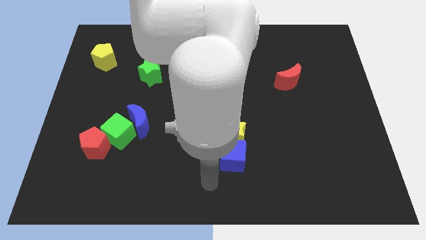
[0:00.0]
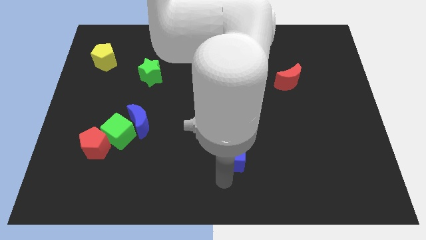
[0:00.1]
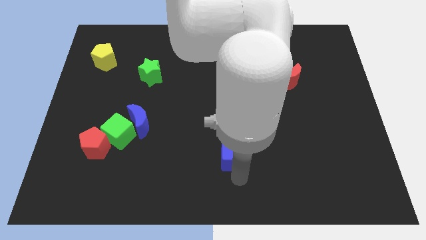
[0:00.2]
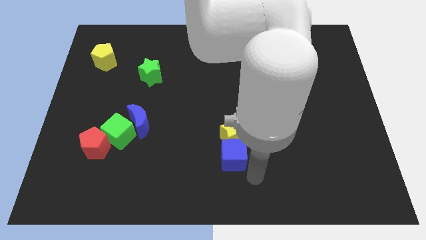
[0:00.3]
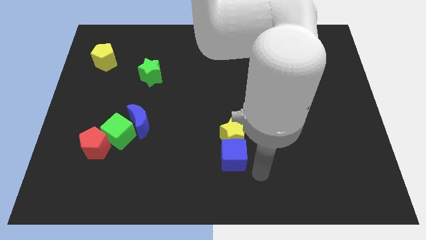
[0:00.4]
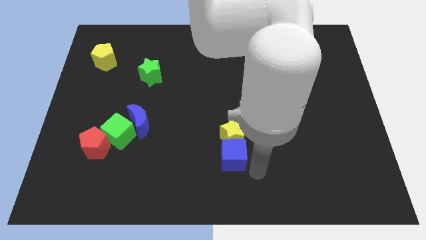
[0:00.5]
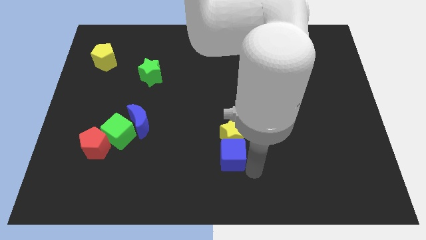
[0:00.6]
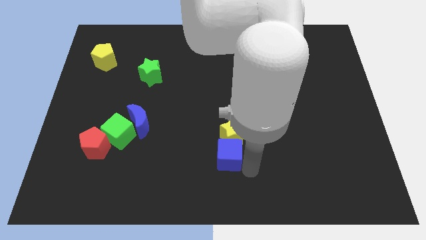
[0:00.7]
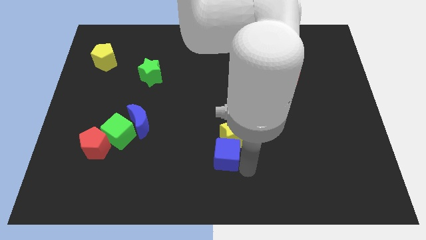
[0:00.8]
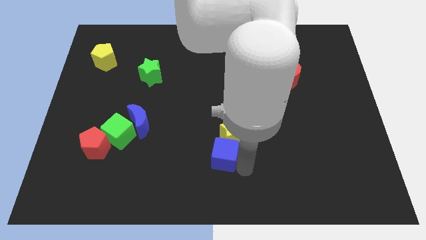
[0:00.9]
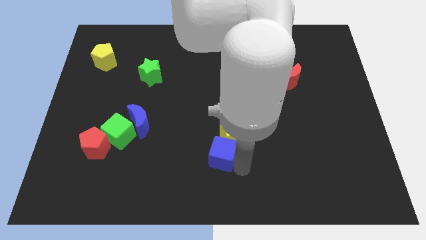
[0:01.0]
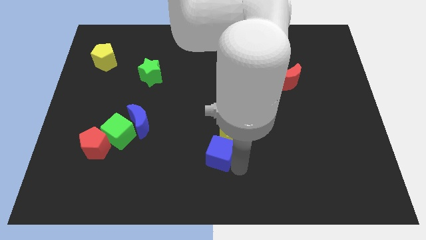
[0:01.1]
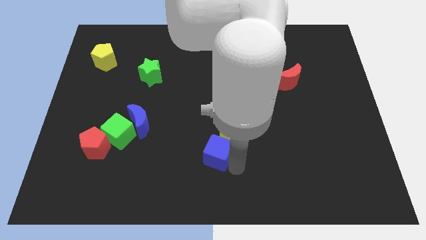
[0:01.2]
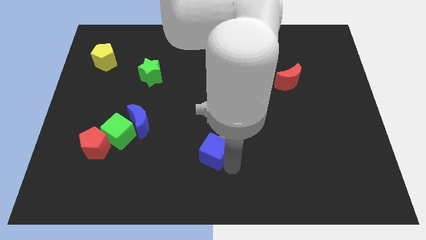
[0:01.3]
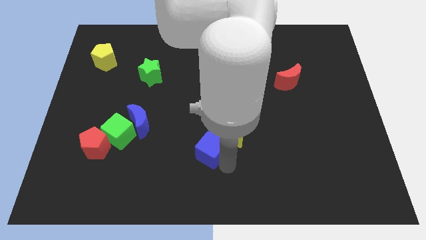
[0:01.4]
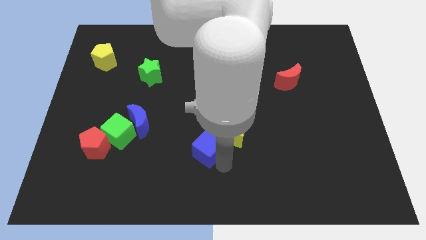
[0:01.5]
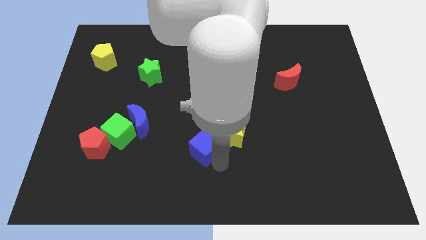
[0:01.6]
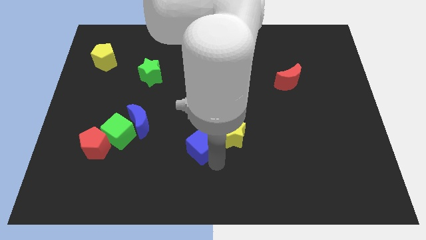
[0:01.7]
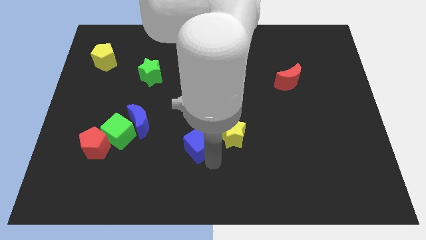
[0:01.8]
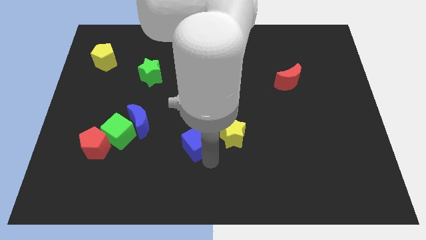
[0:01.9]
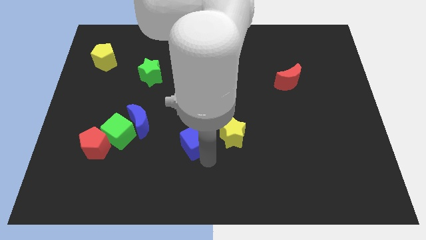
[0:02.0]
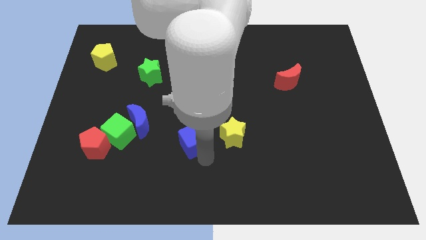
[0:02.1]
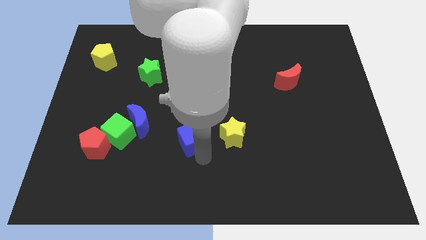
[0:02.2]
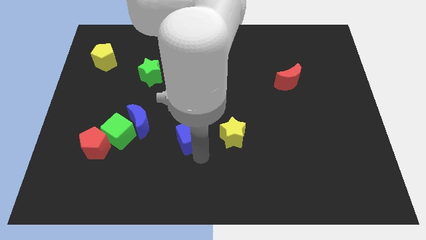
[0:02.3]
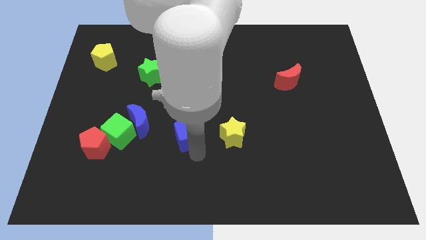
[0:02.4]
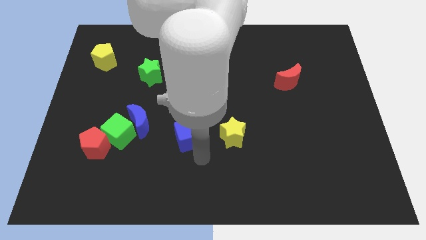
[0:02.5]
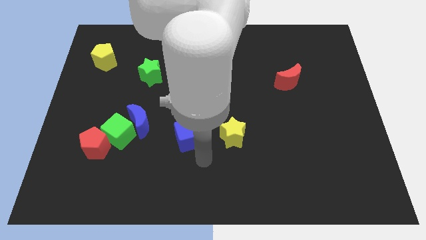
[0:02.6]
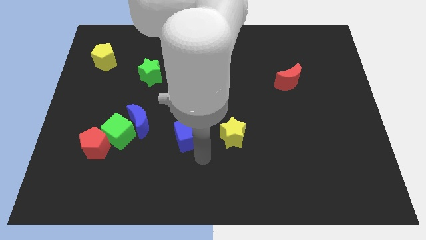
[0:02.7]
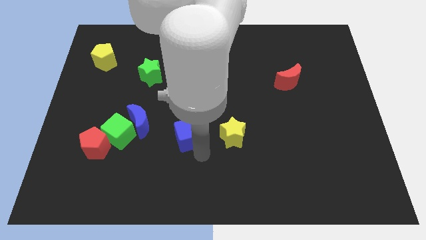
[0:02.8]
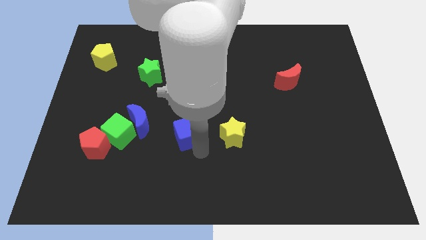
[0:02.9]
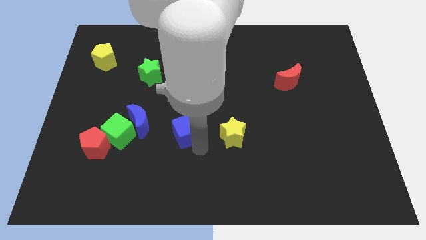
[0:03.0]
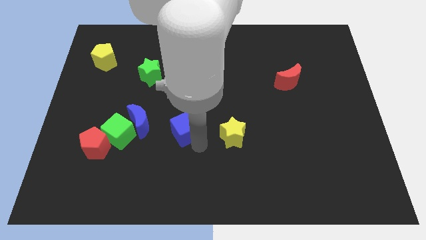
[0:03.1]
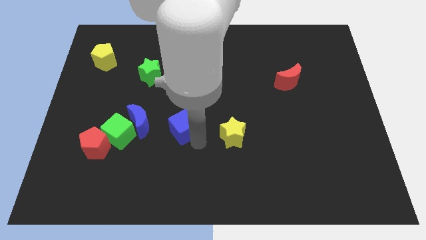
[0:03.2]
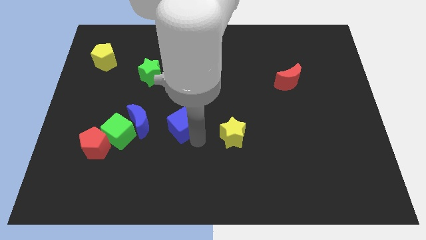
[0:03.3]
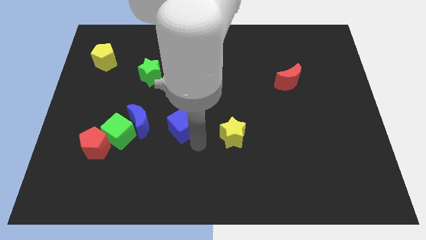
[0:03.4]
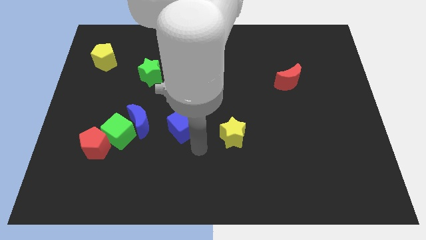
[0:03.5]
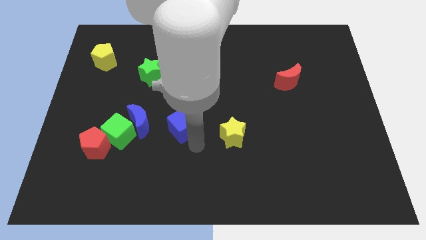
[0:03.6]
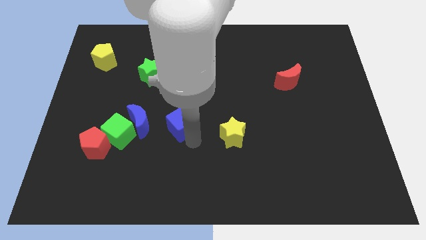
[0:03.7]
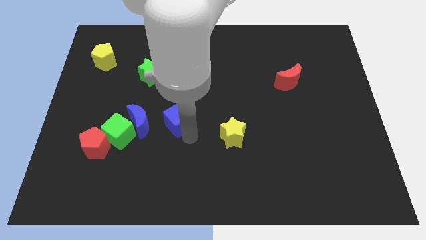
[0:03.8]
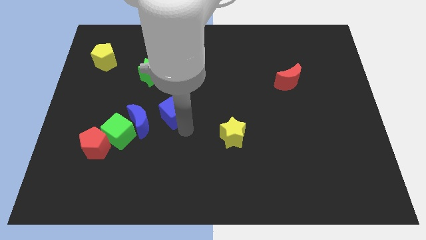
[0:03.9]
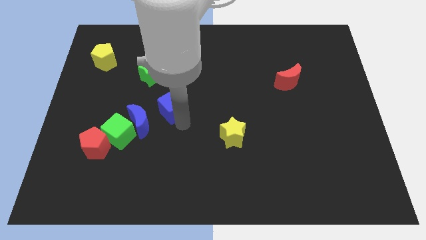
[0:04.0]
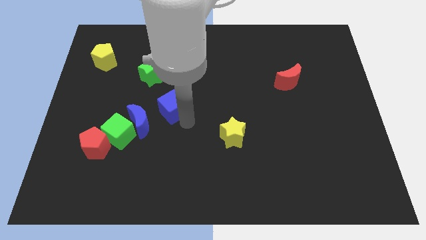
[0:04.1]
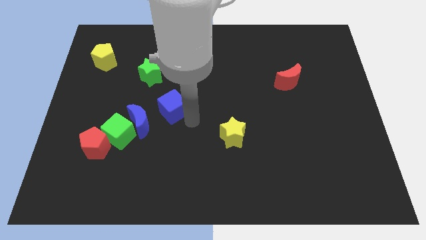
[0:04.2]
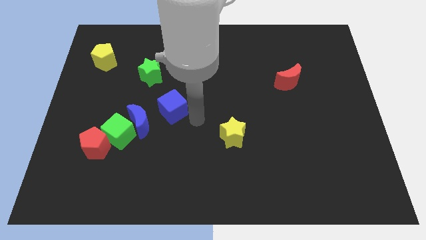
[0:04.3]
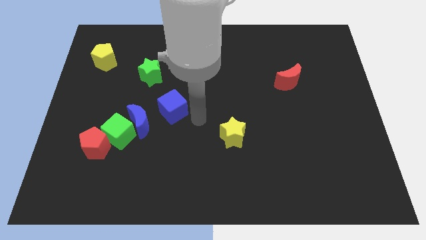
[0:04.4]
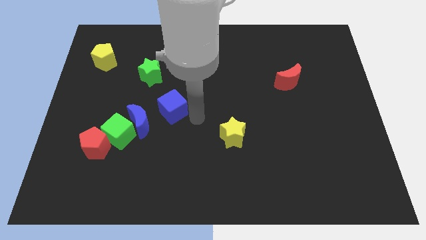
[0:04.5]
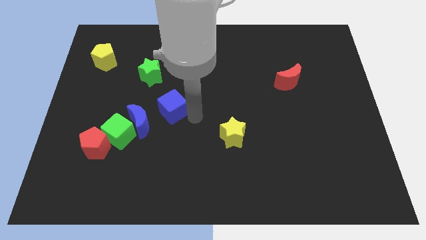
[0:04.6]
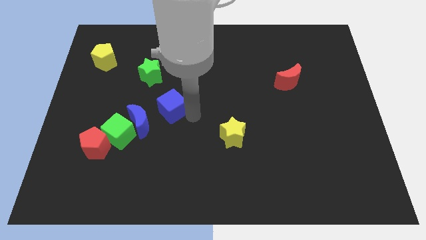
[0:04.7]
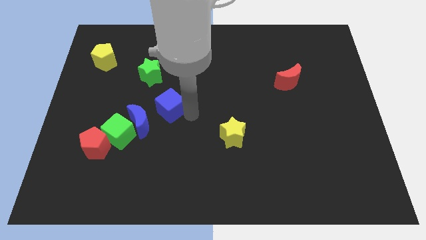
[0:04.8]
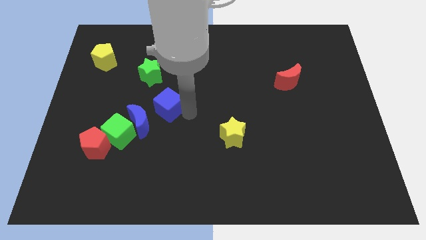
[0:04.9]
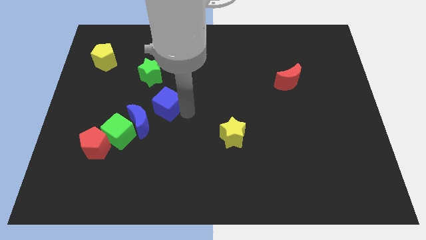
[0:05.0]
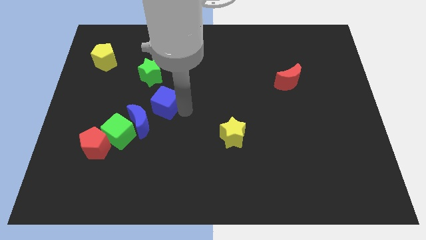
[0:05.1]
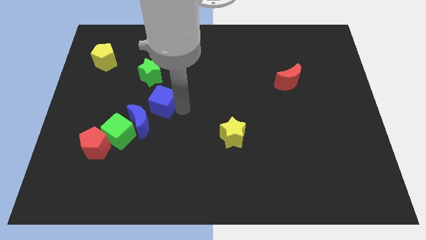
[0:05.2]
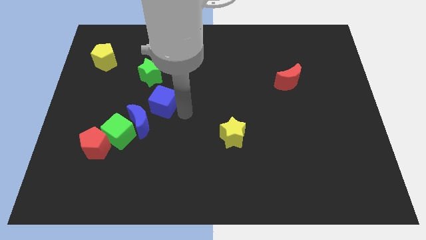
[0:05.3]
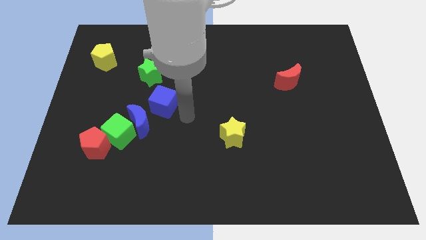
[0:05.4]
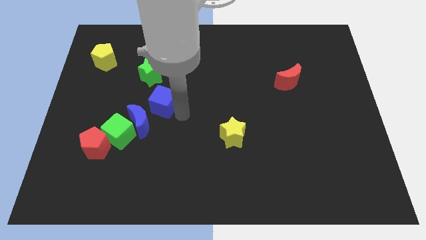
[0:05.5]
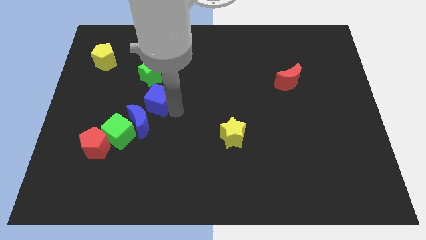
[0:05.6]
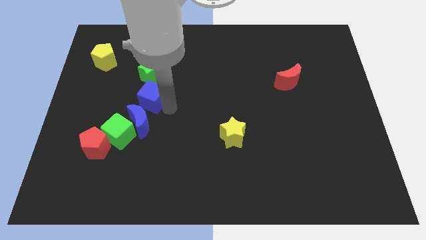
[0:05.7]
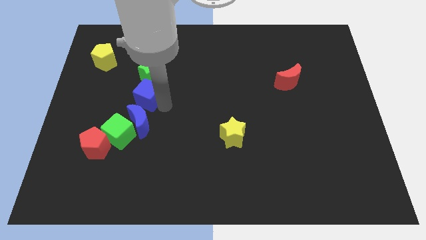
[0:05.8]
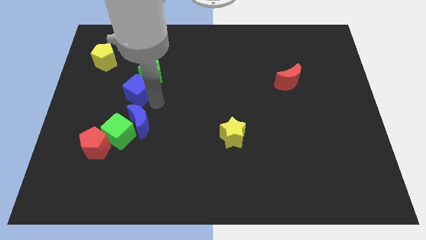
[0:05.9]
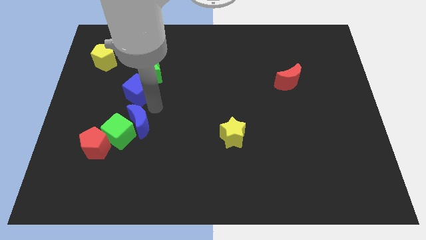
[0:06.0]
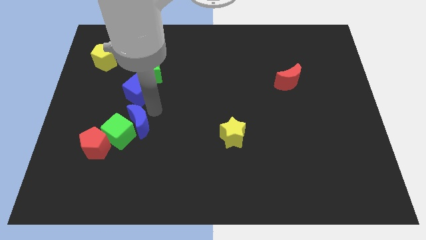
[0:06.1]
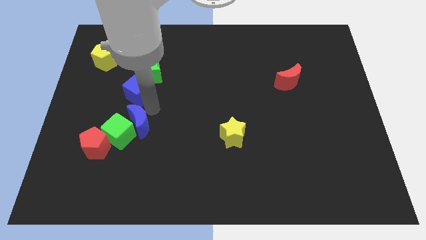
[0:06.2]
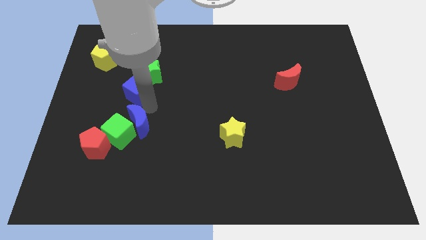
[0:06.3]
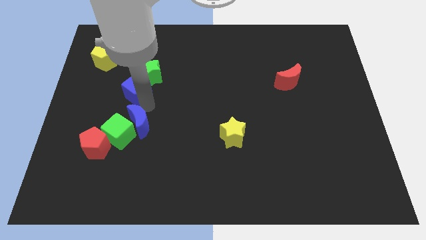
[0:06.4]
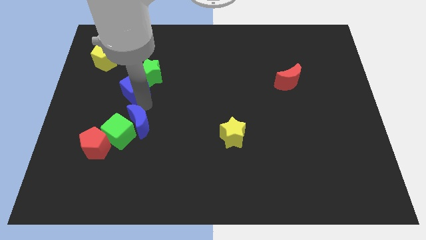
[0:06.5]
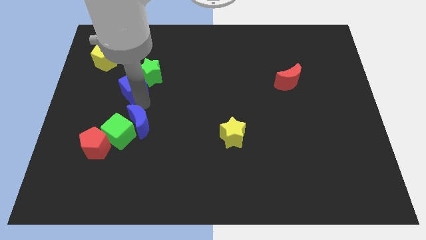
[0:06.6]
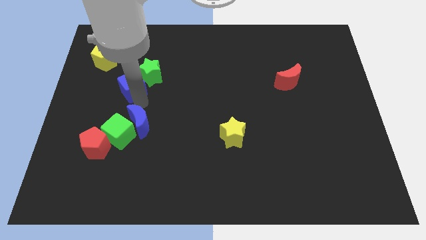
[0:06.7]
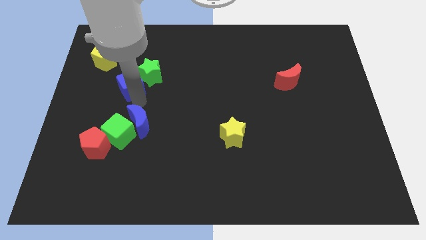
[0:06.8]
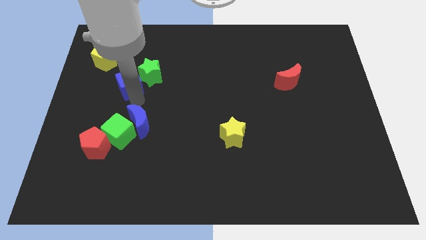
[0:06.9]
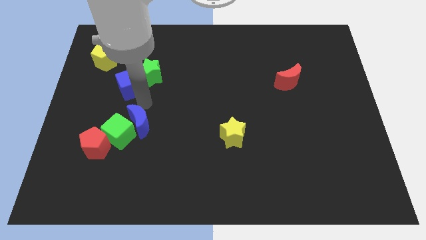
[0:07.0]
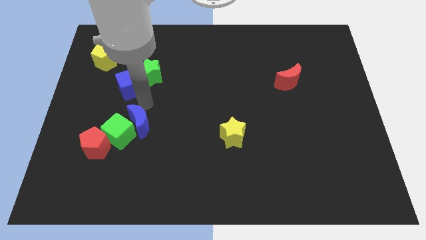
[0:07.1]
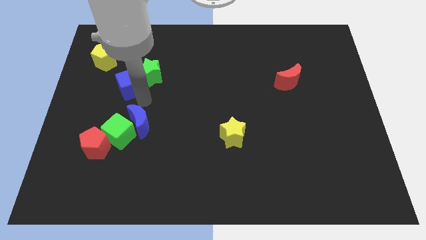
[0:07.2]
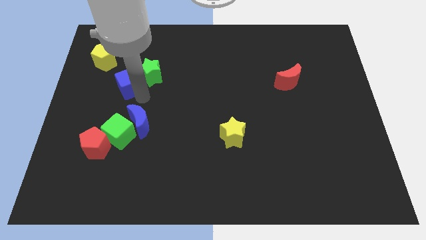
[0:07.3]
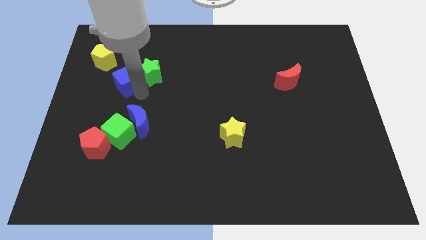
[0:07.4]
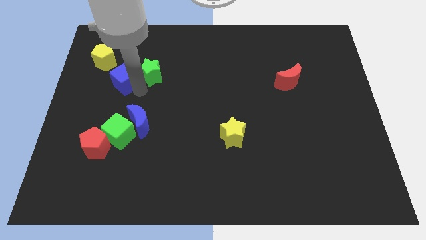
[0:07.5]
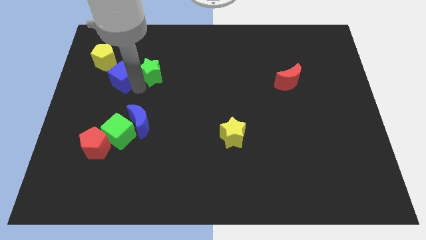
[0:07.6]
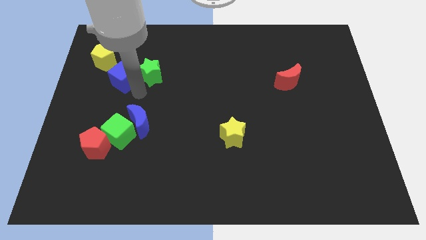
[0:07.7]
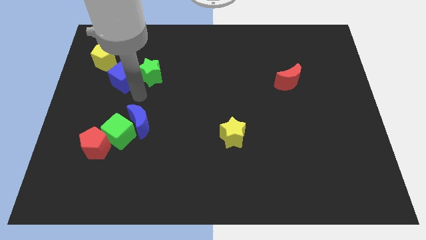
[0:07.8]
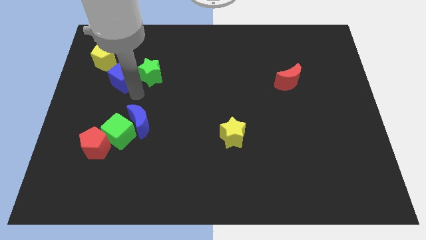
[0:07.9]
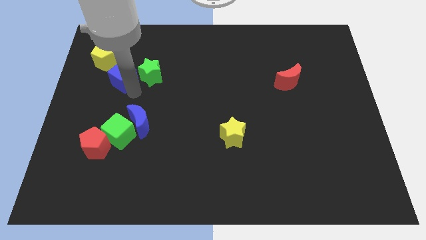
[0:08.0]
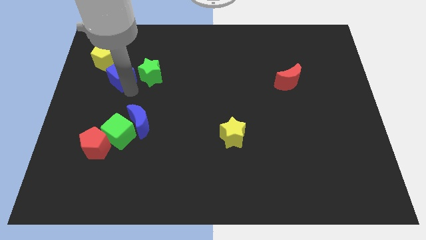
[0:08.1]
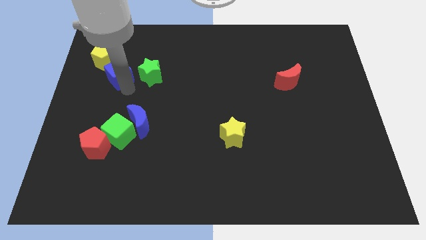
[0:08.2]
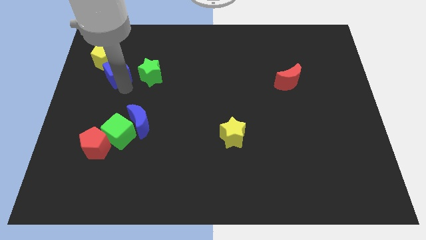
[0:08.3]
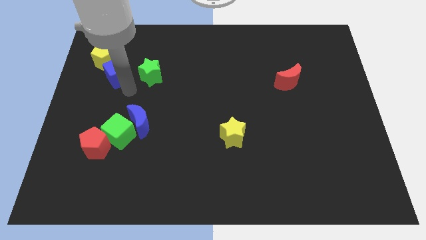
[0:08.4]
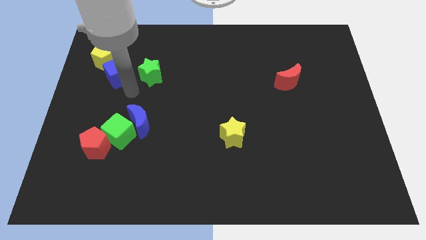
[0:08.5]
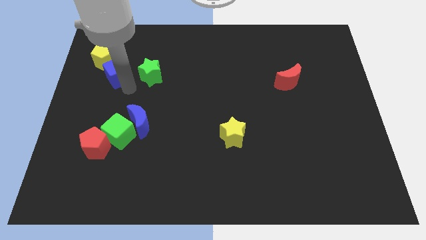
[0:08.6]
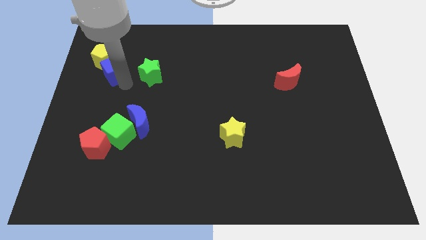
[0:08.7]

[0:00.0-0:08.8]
put the blue cube close to the yellow pentagon
